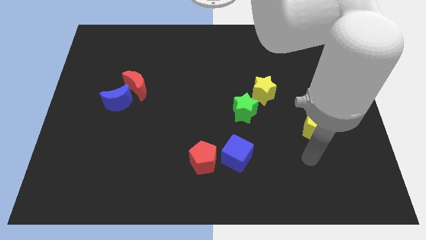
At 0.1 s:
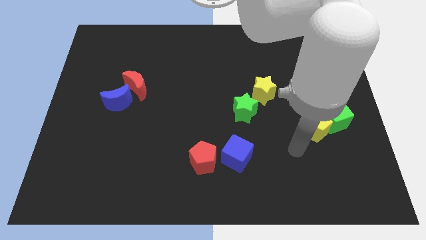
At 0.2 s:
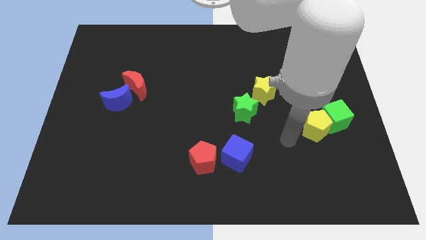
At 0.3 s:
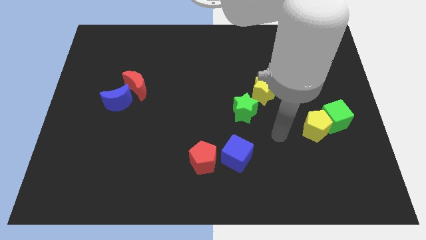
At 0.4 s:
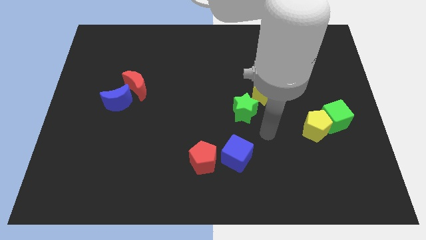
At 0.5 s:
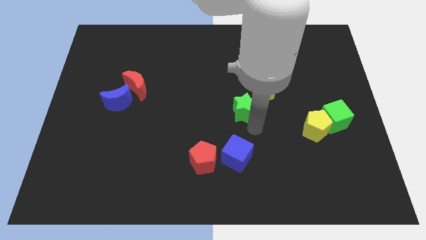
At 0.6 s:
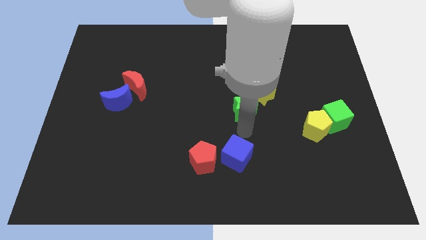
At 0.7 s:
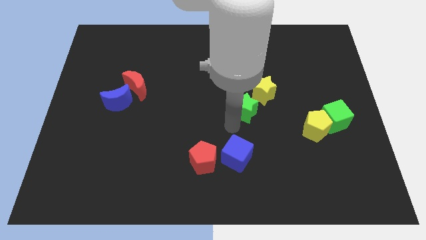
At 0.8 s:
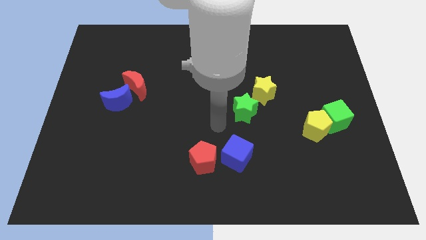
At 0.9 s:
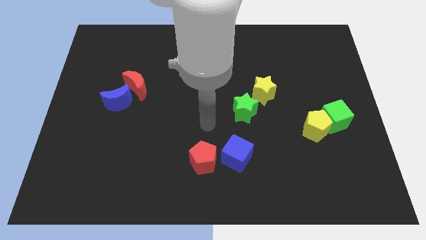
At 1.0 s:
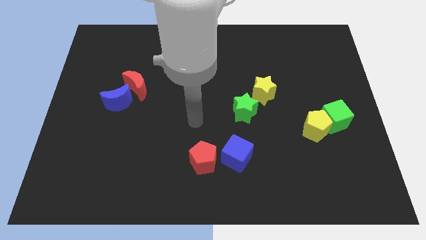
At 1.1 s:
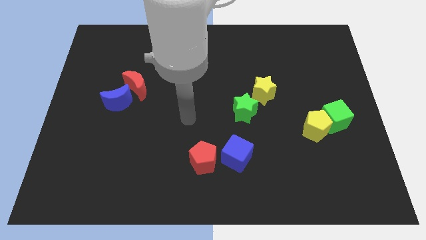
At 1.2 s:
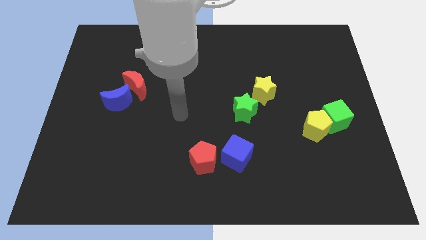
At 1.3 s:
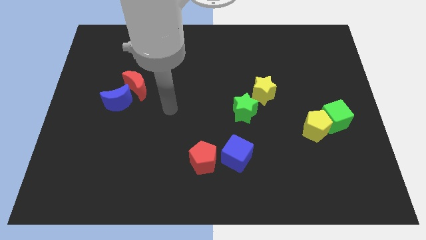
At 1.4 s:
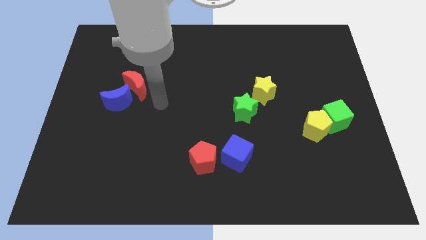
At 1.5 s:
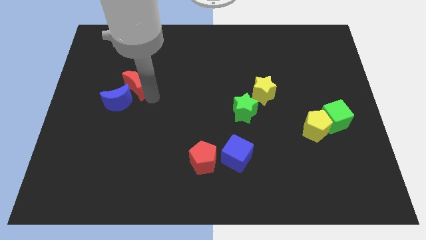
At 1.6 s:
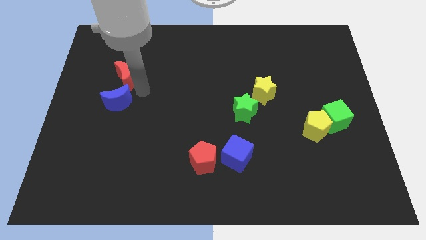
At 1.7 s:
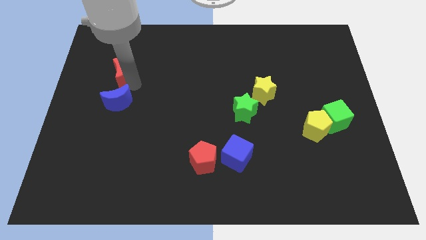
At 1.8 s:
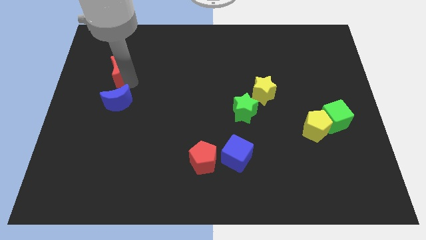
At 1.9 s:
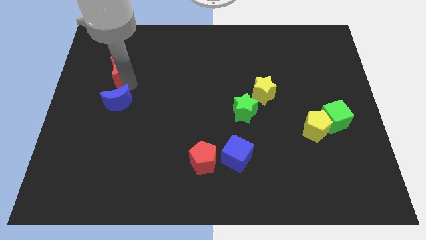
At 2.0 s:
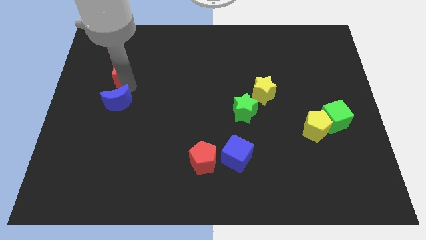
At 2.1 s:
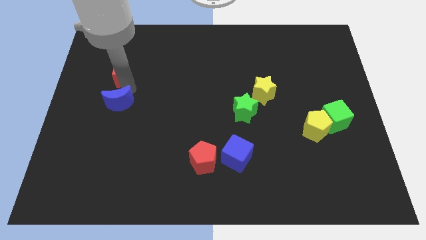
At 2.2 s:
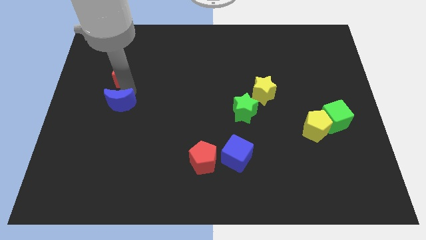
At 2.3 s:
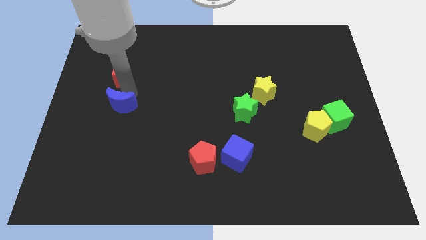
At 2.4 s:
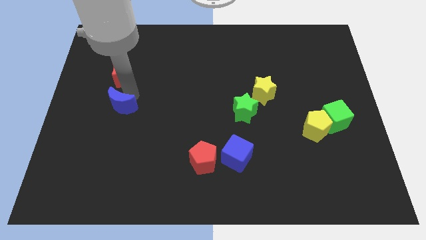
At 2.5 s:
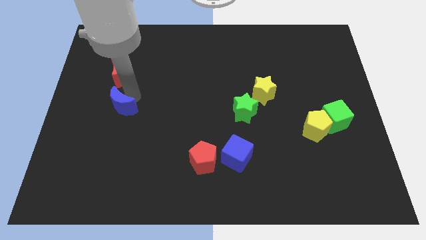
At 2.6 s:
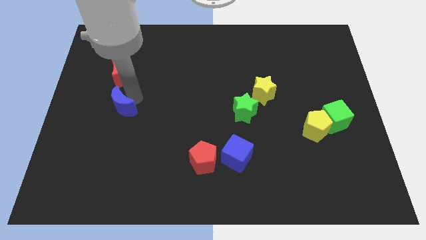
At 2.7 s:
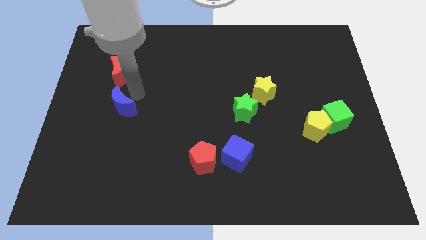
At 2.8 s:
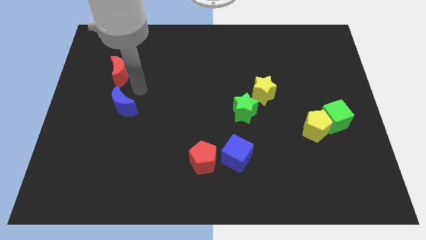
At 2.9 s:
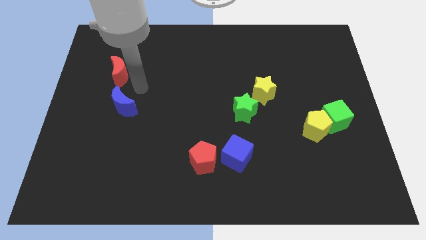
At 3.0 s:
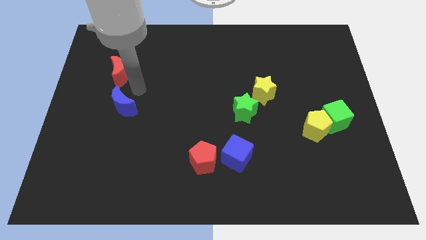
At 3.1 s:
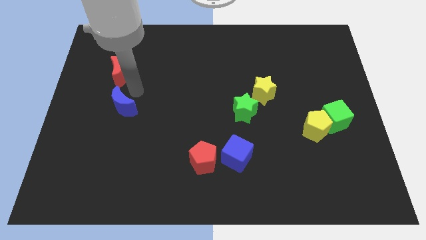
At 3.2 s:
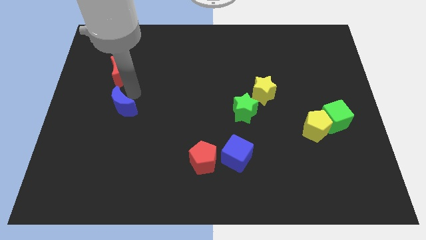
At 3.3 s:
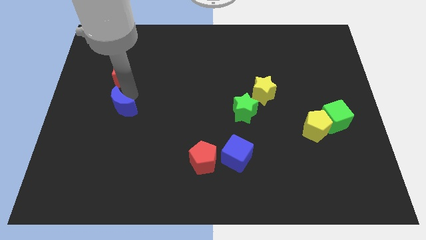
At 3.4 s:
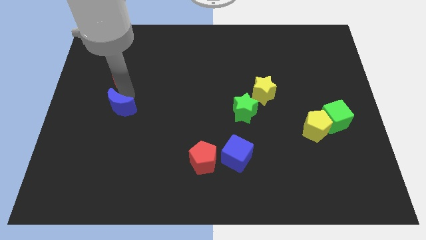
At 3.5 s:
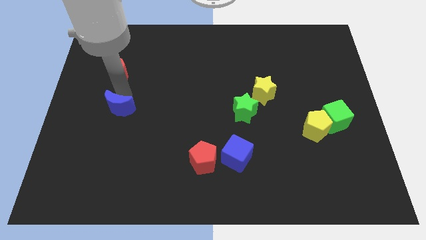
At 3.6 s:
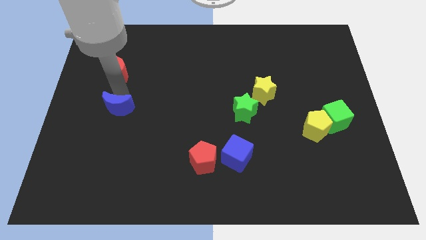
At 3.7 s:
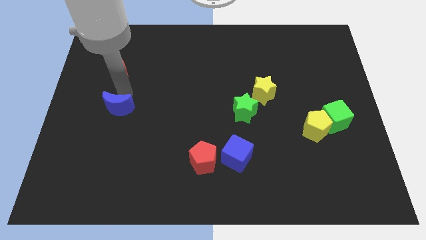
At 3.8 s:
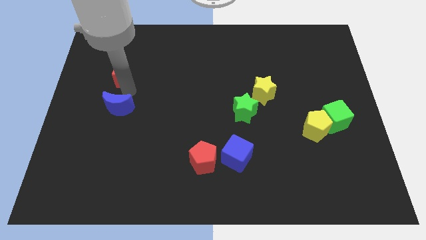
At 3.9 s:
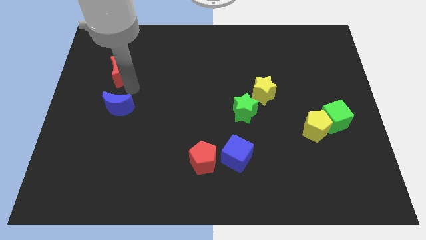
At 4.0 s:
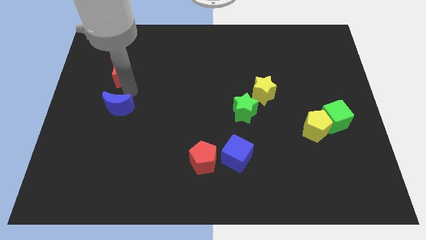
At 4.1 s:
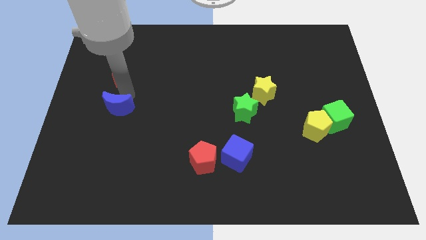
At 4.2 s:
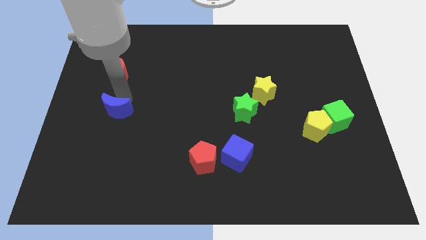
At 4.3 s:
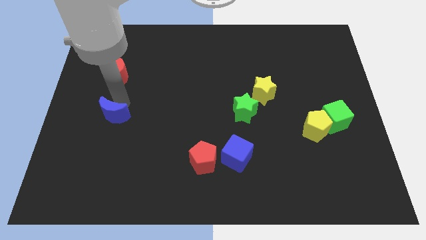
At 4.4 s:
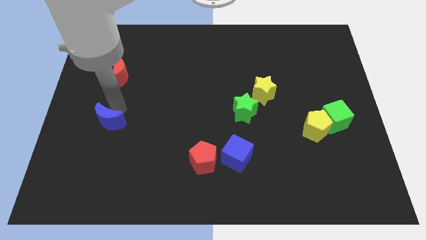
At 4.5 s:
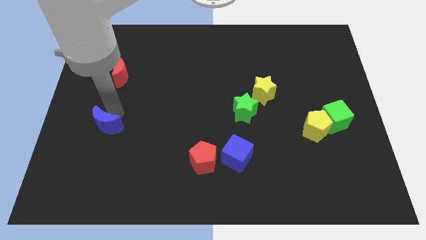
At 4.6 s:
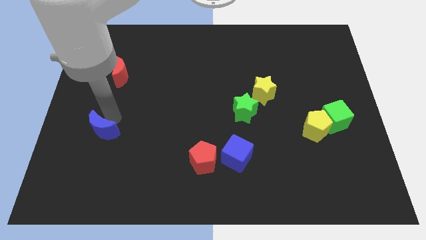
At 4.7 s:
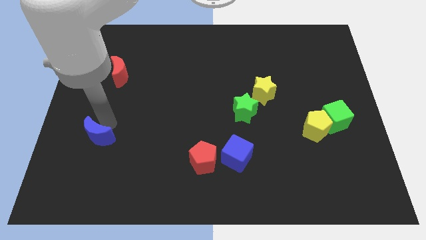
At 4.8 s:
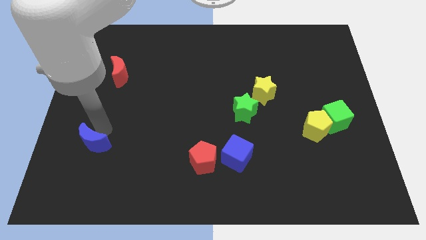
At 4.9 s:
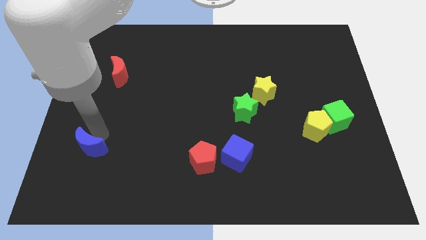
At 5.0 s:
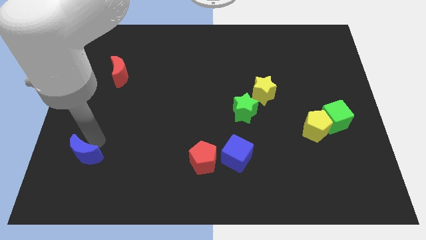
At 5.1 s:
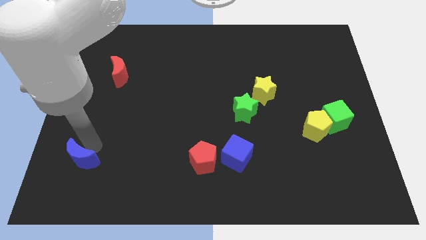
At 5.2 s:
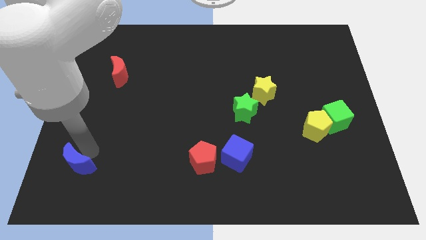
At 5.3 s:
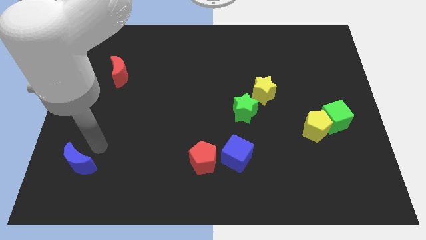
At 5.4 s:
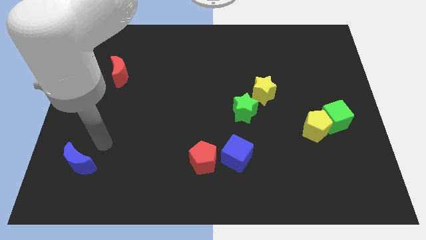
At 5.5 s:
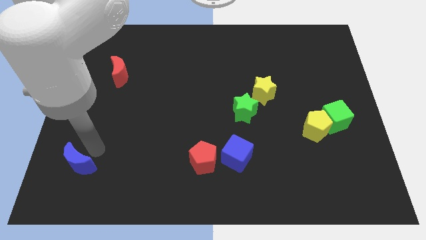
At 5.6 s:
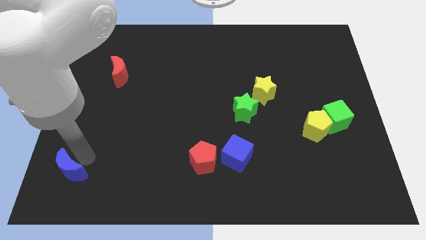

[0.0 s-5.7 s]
move the blue moon to the bottom left corner
